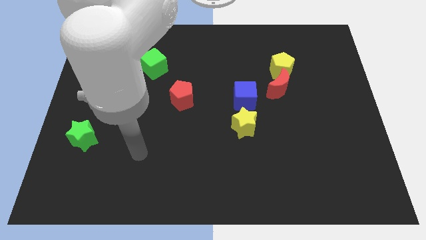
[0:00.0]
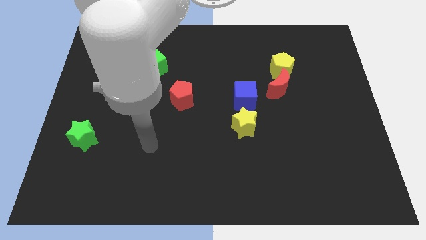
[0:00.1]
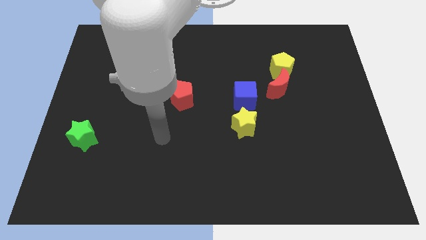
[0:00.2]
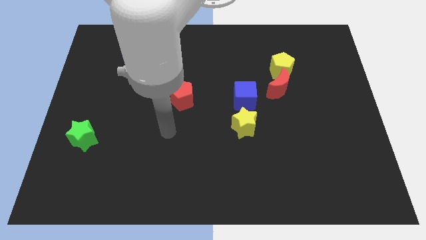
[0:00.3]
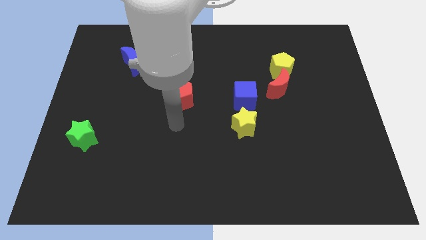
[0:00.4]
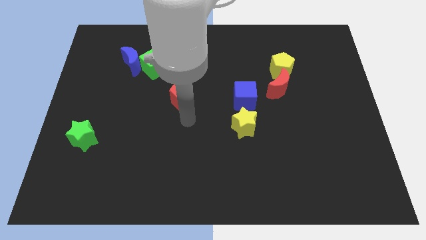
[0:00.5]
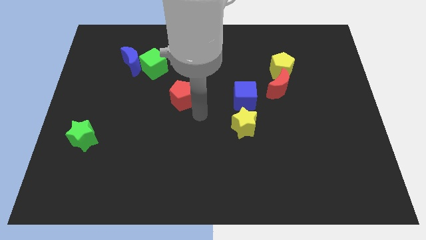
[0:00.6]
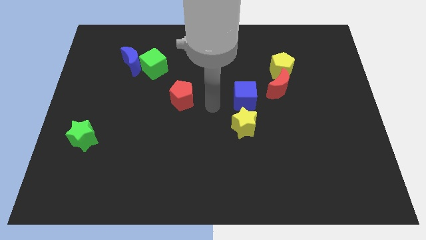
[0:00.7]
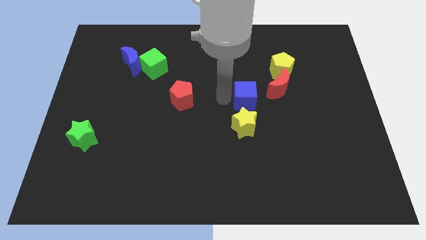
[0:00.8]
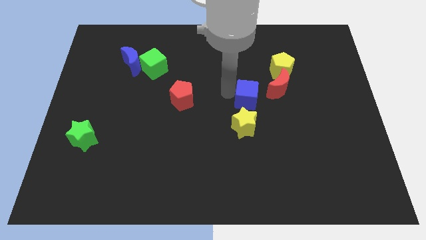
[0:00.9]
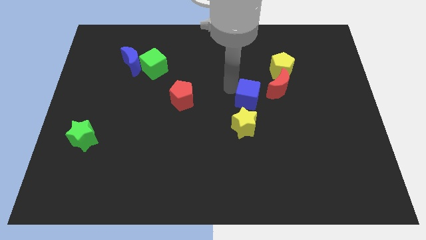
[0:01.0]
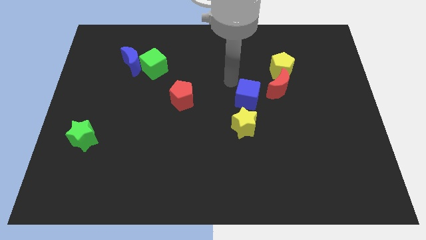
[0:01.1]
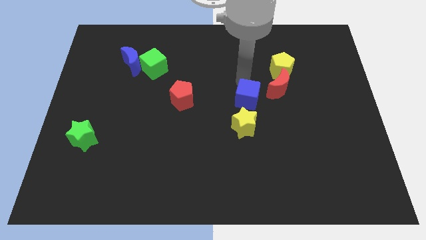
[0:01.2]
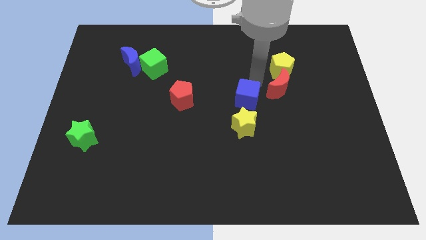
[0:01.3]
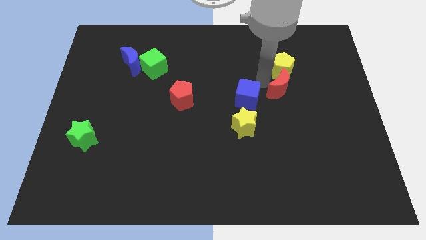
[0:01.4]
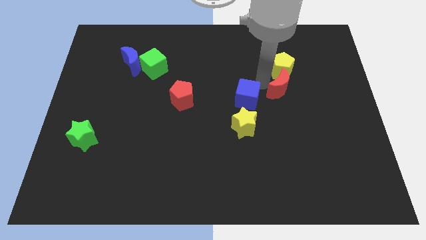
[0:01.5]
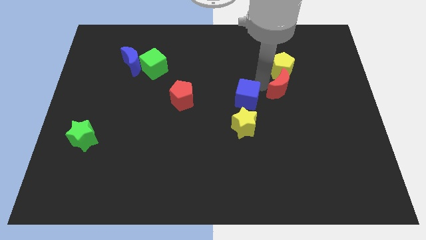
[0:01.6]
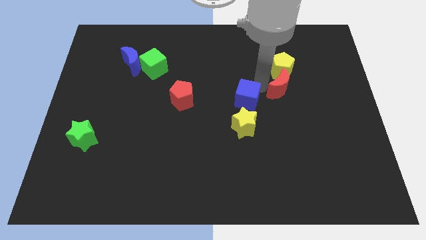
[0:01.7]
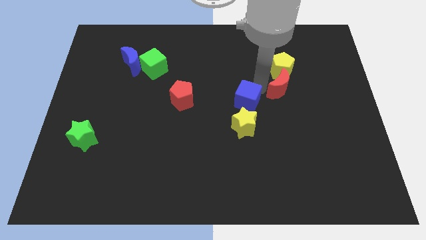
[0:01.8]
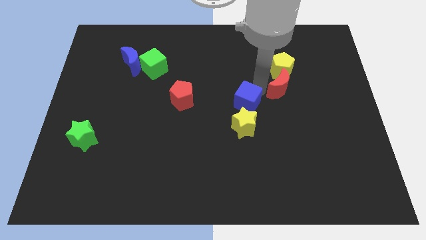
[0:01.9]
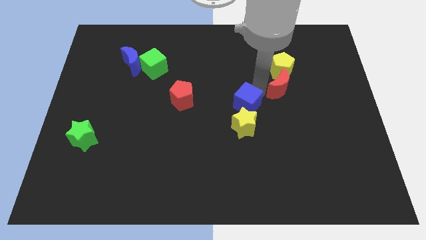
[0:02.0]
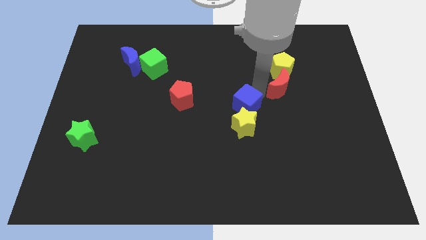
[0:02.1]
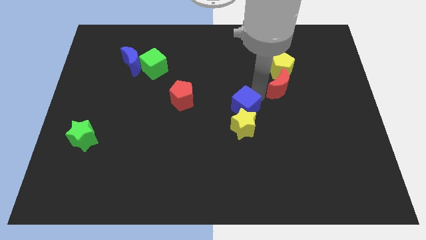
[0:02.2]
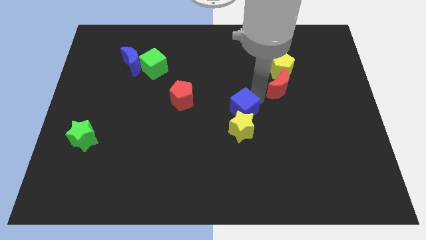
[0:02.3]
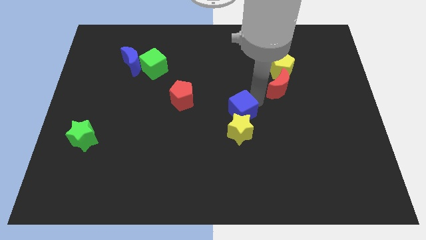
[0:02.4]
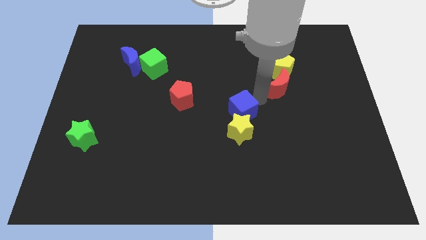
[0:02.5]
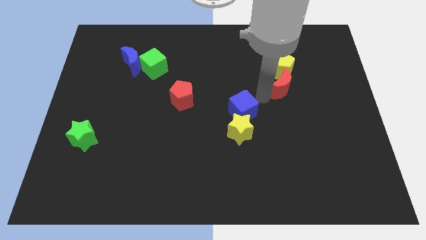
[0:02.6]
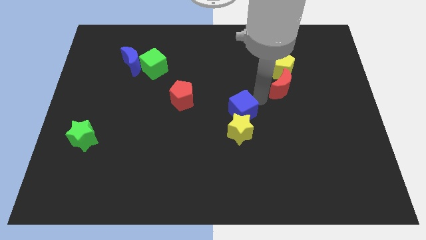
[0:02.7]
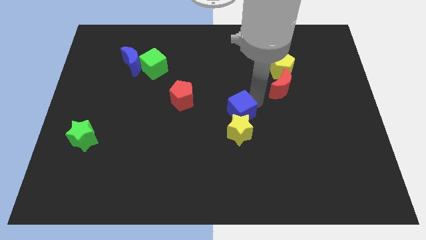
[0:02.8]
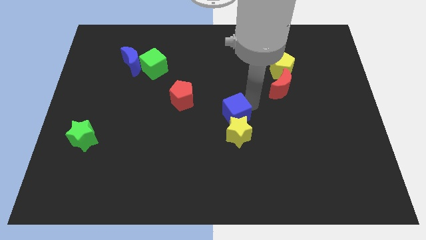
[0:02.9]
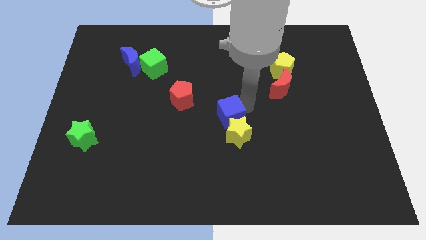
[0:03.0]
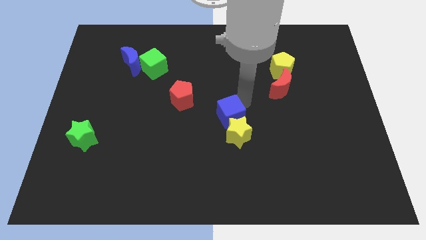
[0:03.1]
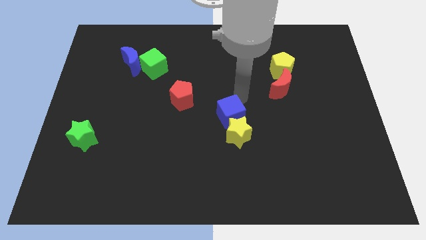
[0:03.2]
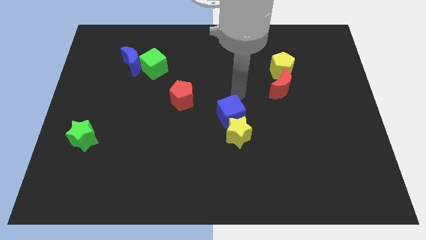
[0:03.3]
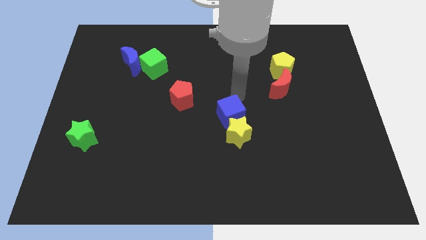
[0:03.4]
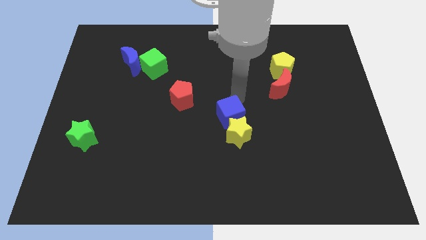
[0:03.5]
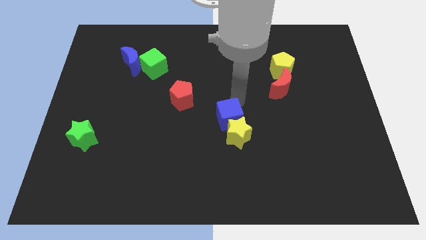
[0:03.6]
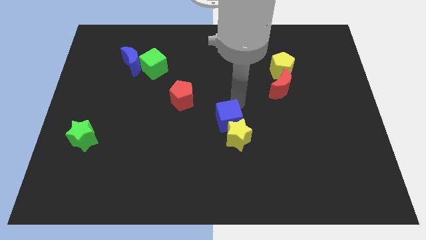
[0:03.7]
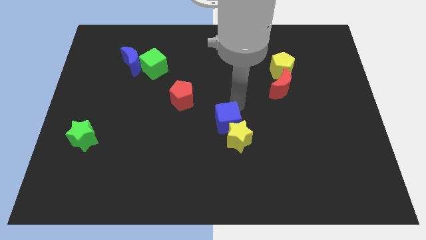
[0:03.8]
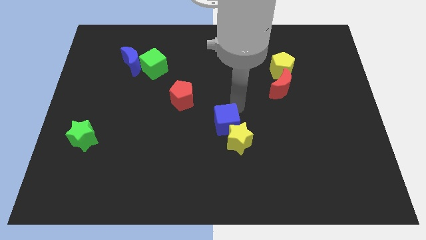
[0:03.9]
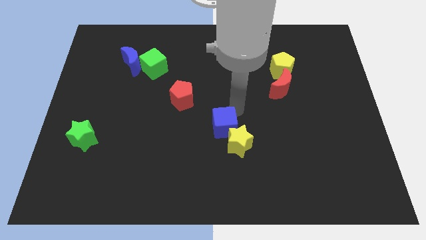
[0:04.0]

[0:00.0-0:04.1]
move the blue cube down slightly

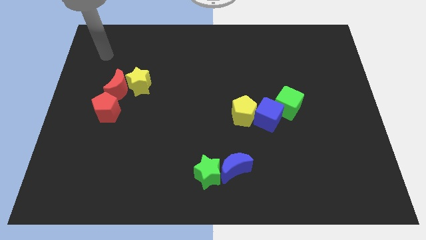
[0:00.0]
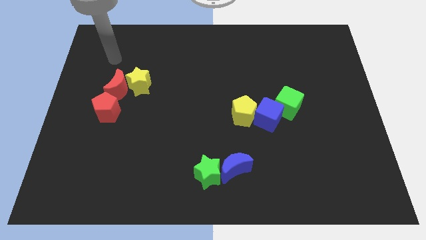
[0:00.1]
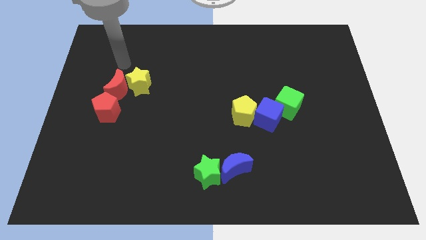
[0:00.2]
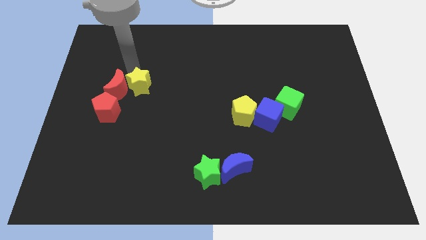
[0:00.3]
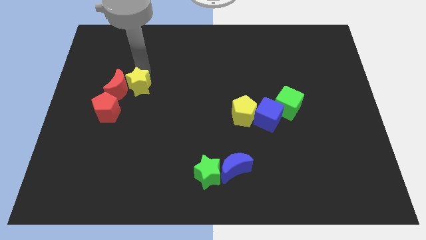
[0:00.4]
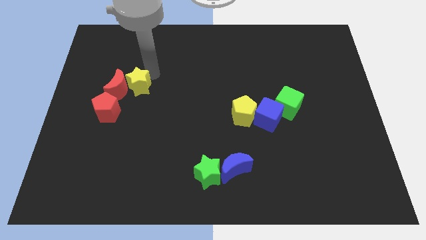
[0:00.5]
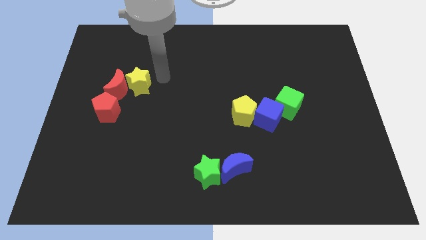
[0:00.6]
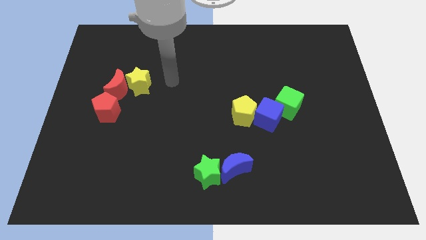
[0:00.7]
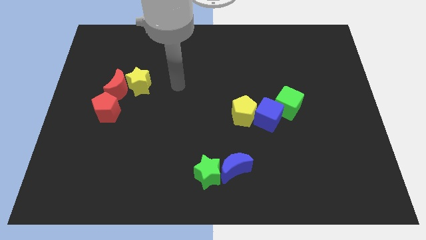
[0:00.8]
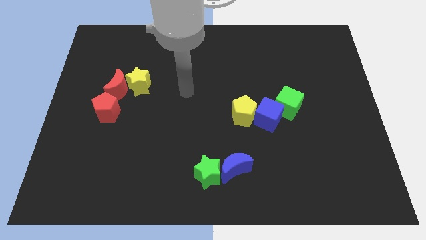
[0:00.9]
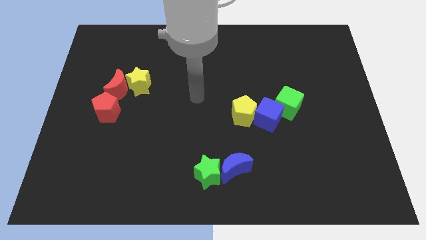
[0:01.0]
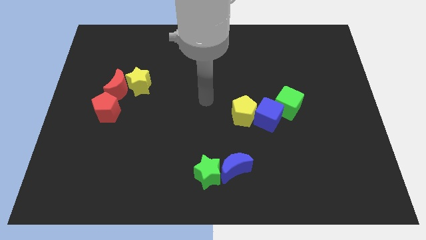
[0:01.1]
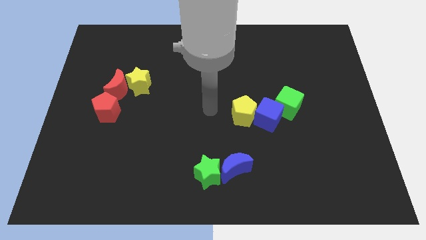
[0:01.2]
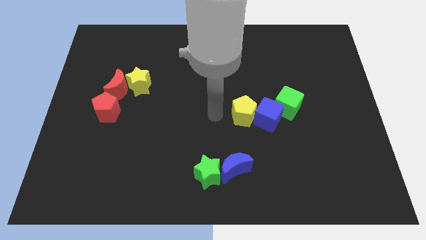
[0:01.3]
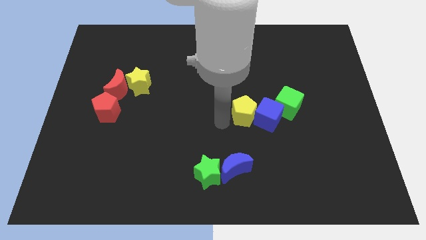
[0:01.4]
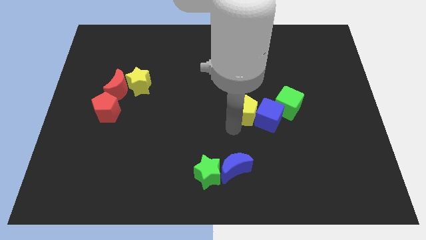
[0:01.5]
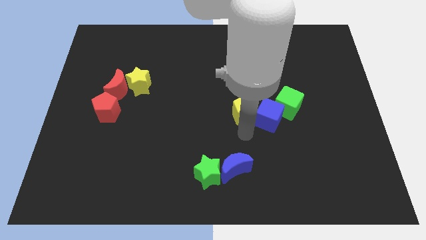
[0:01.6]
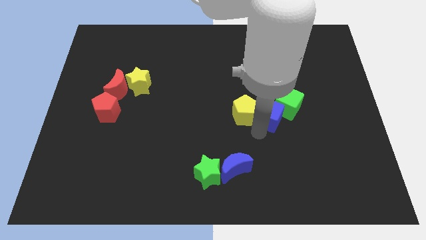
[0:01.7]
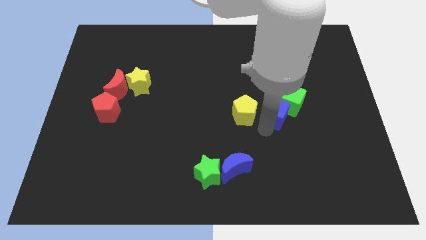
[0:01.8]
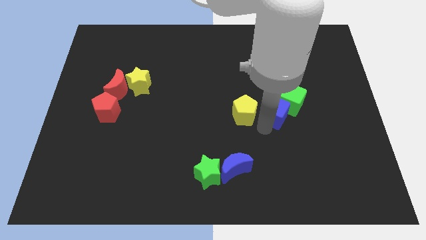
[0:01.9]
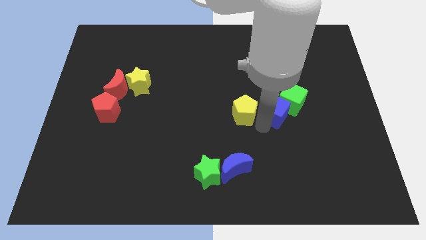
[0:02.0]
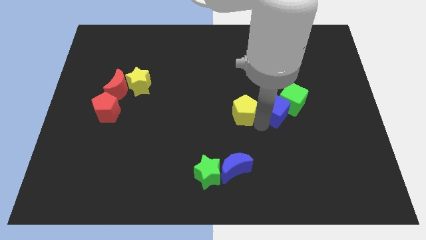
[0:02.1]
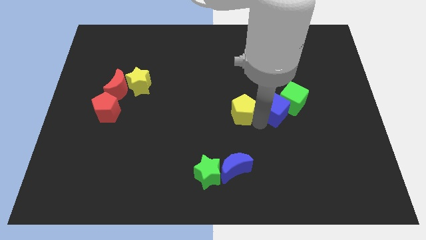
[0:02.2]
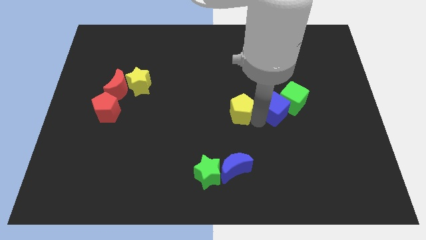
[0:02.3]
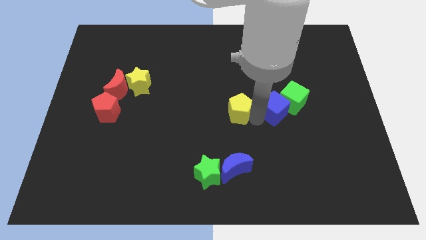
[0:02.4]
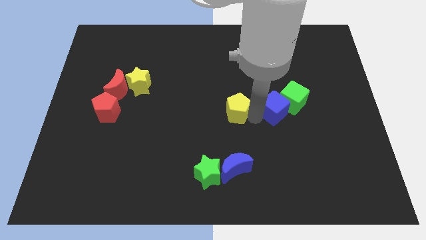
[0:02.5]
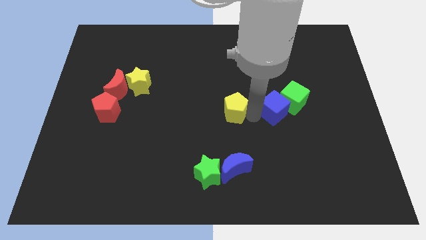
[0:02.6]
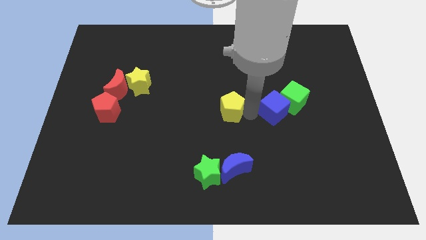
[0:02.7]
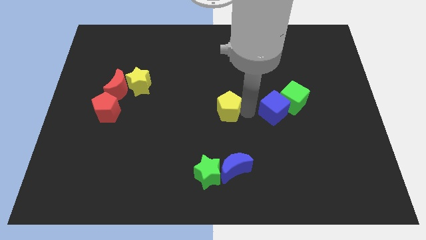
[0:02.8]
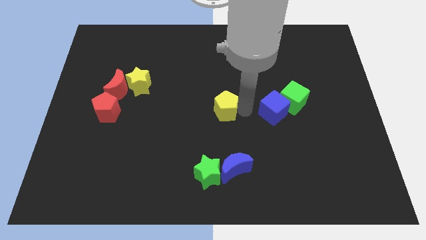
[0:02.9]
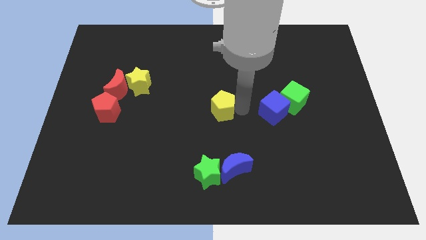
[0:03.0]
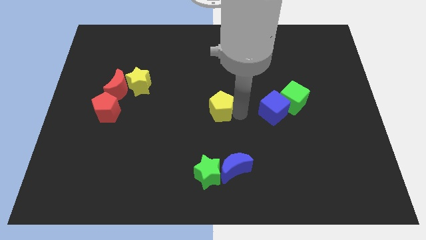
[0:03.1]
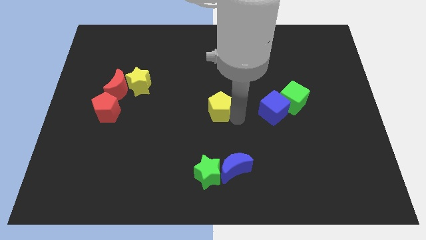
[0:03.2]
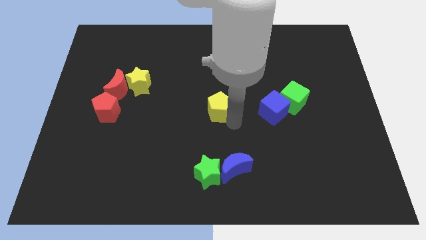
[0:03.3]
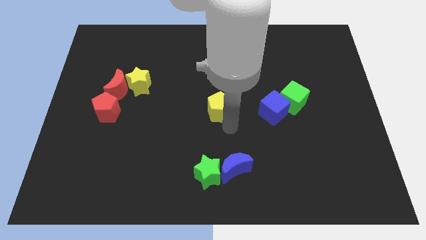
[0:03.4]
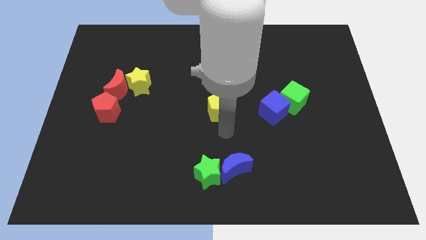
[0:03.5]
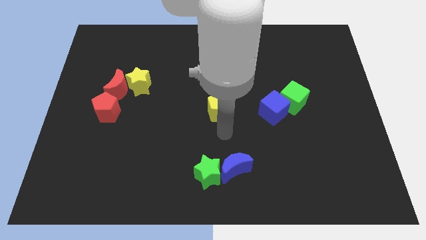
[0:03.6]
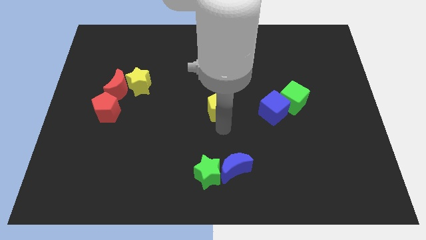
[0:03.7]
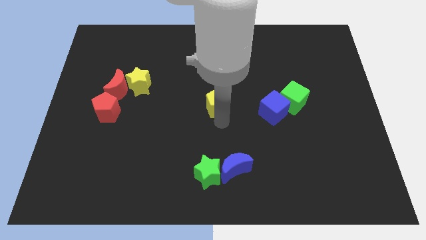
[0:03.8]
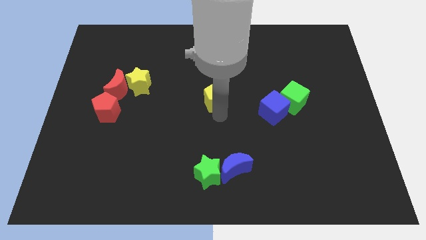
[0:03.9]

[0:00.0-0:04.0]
push the yellow pentagon diagonally upwards and to the left a bit
